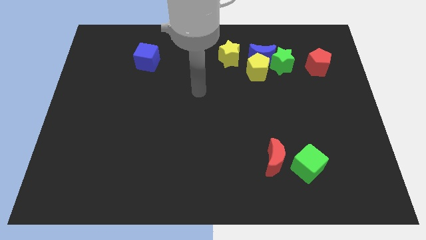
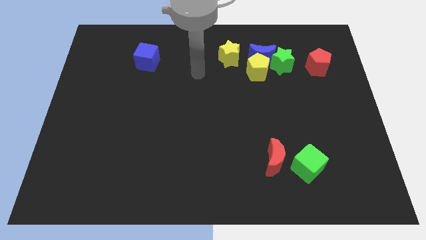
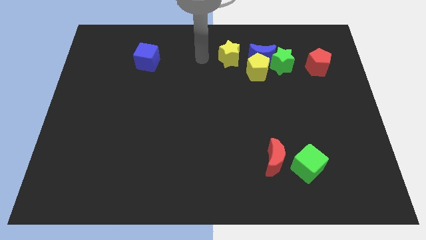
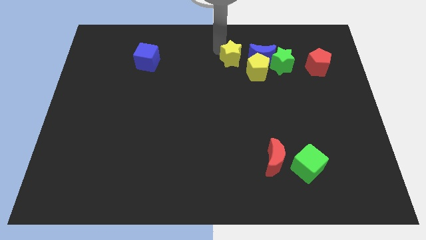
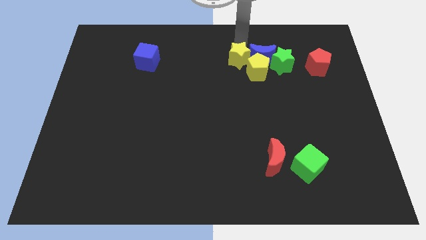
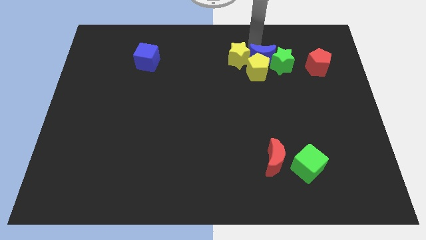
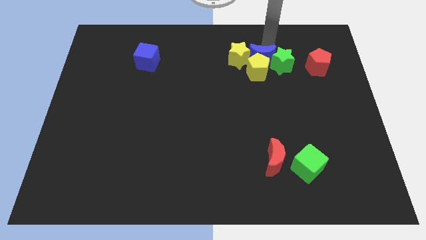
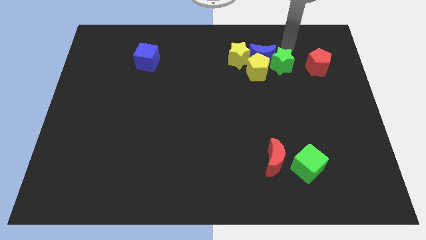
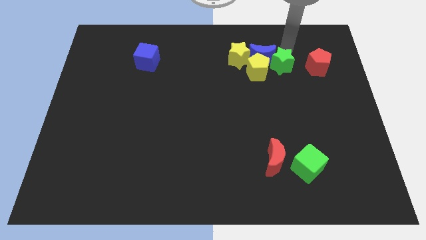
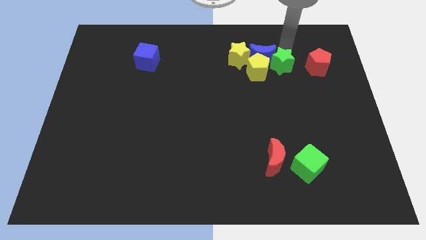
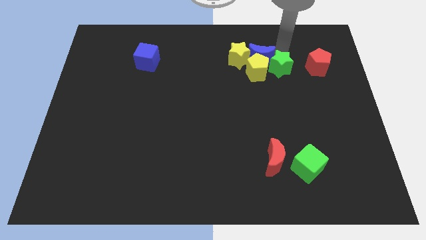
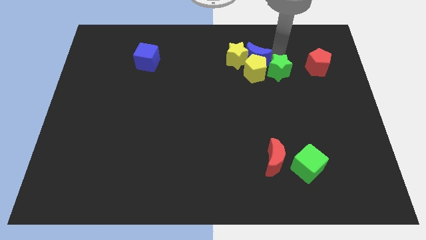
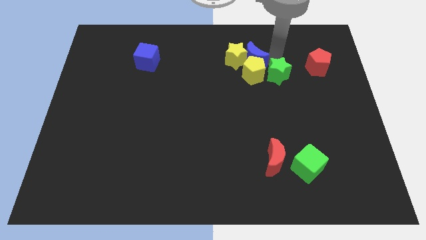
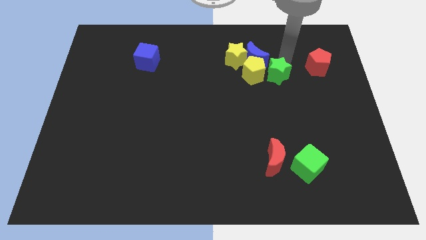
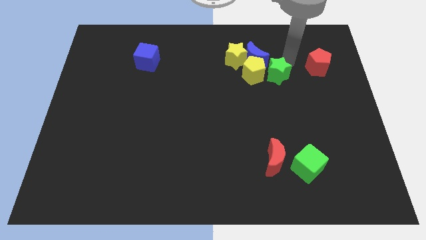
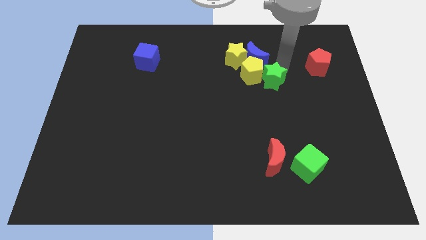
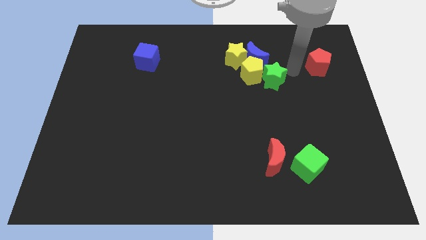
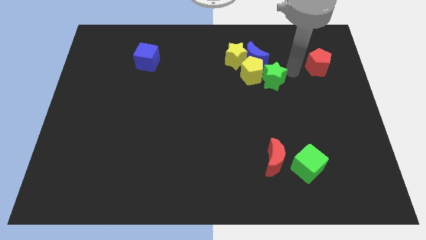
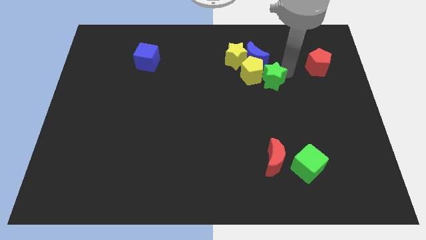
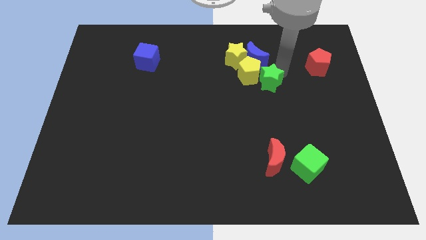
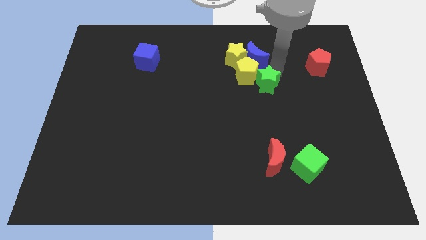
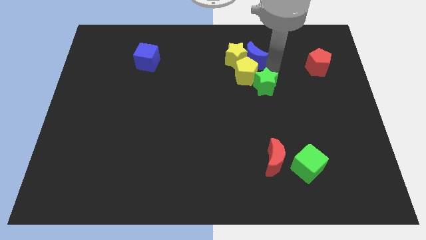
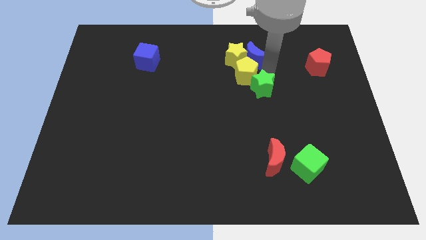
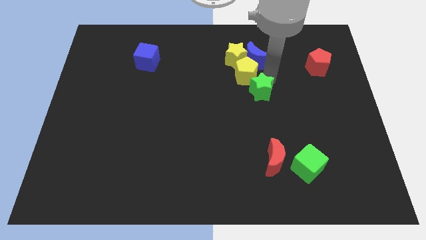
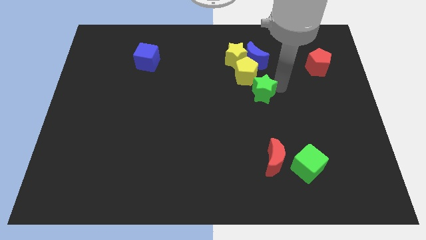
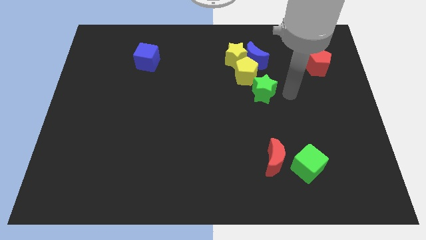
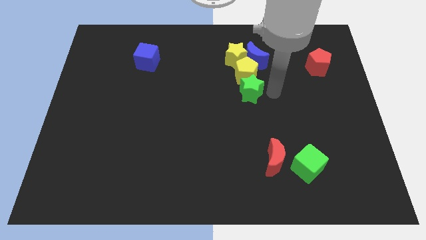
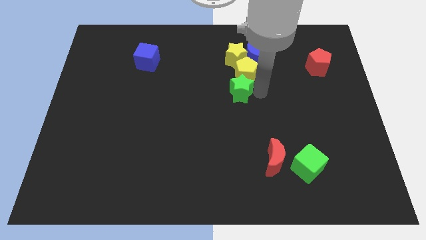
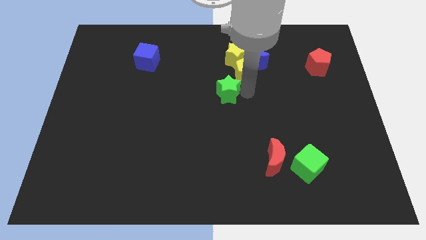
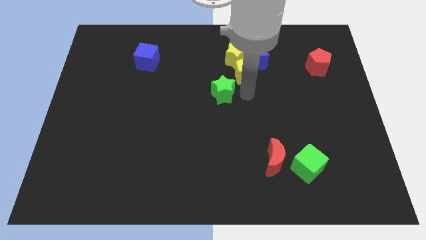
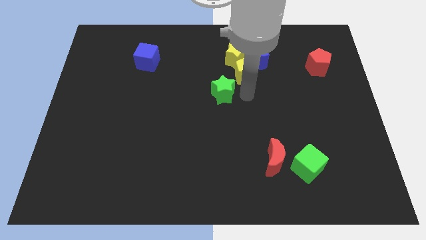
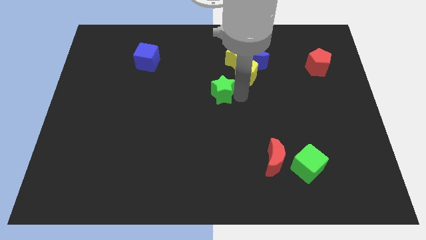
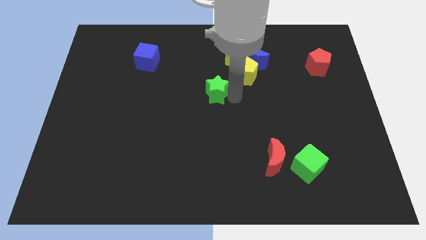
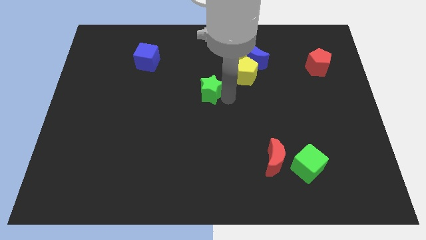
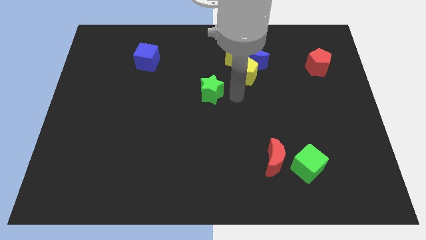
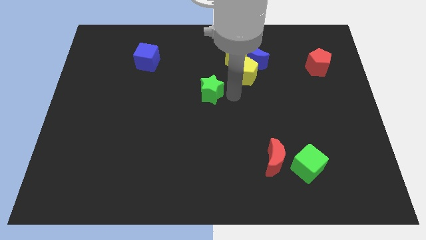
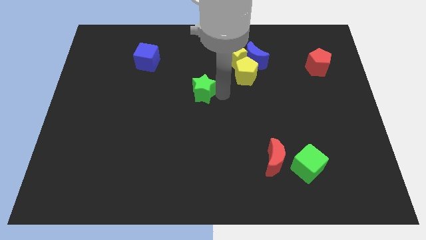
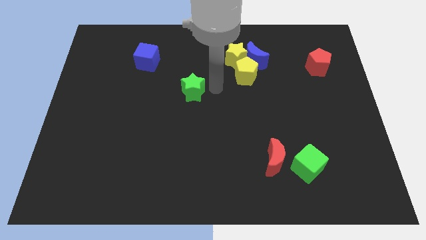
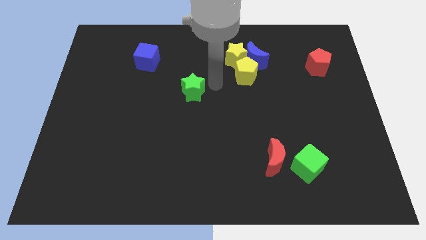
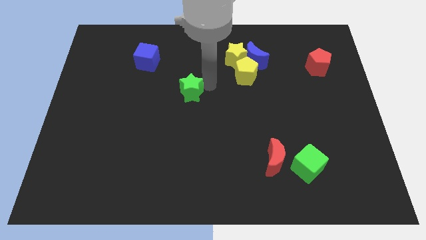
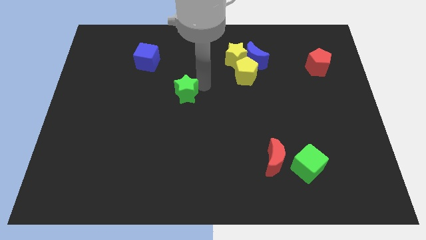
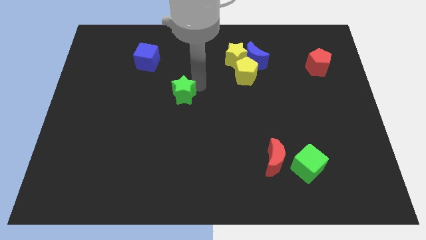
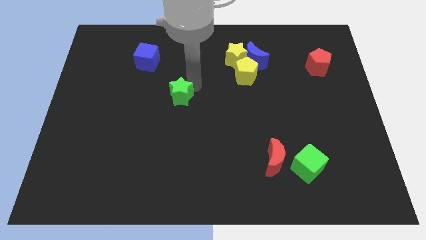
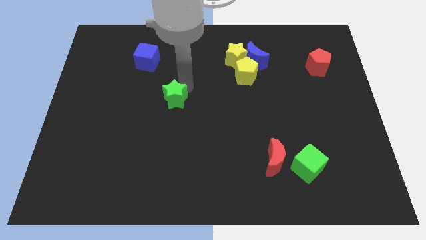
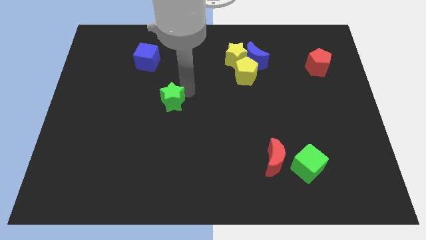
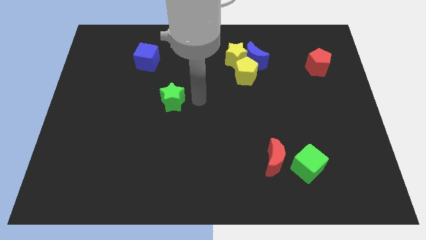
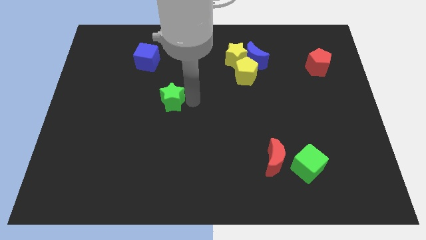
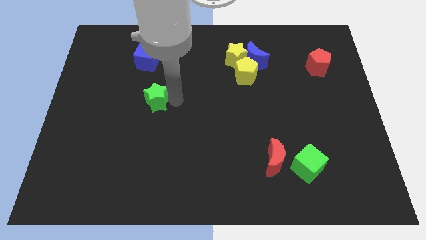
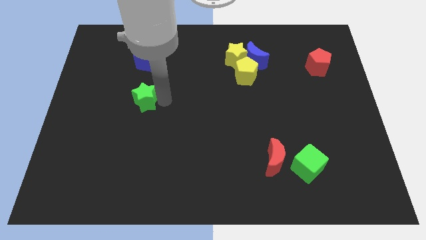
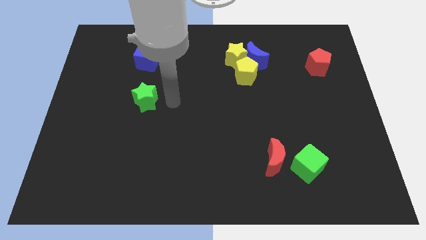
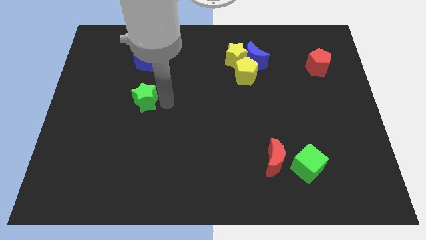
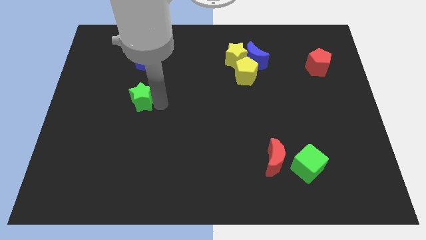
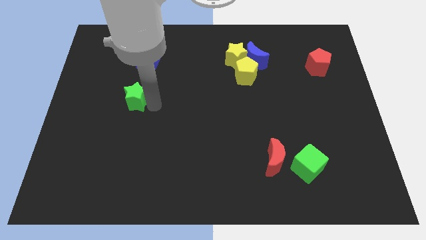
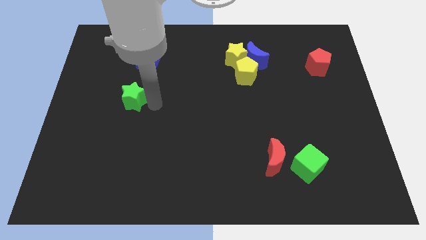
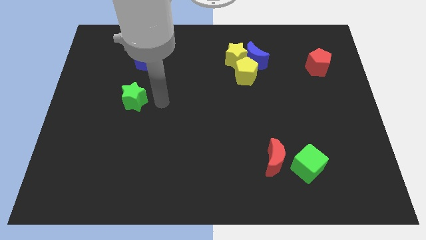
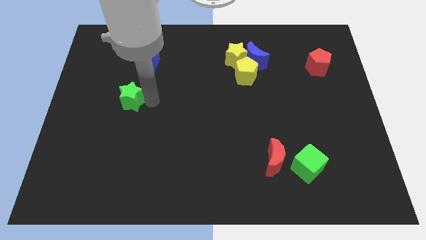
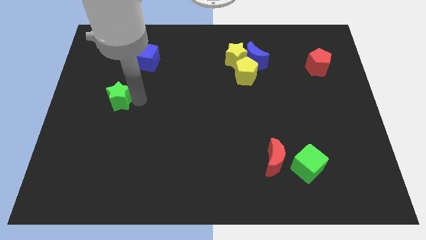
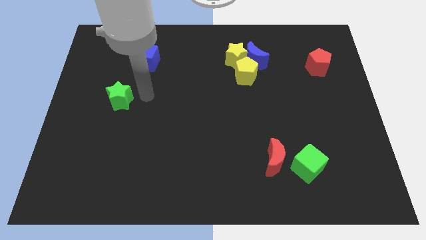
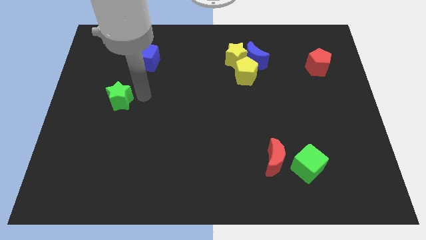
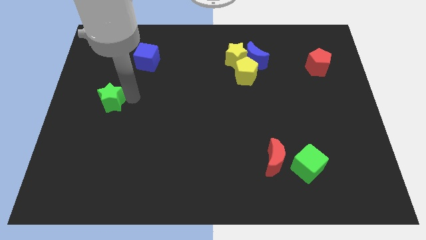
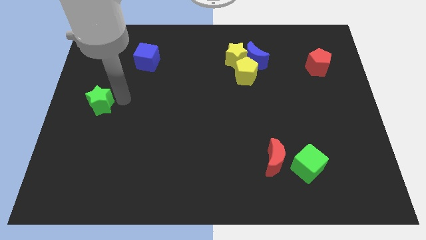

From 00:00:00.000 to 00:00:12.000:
move the green star to the left side of the board

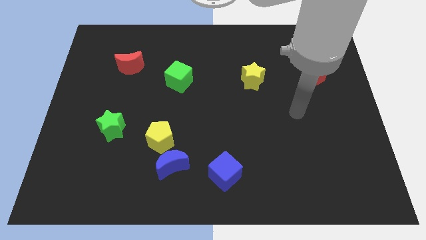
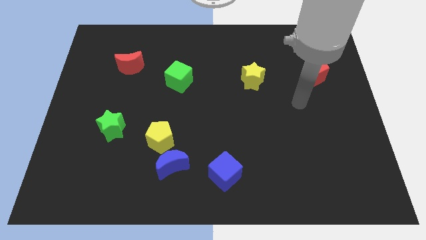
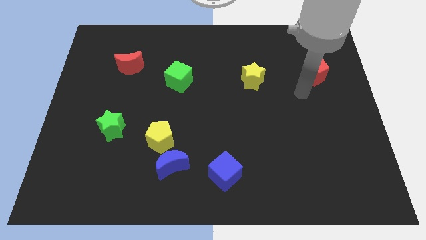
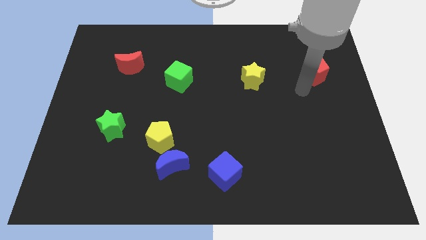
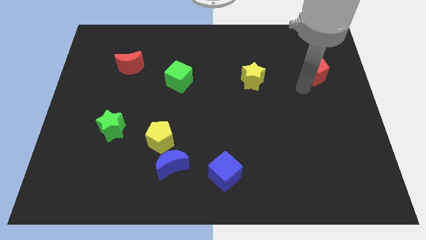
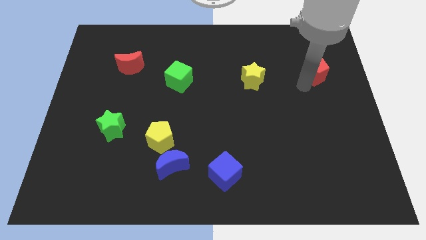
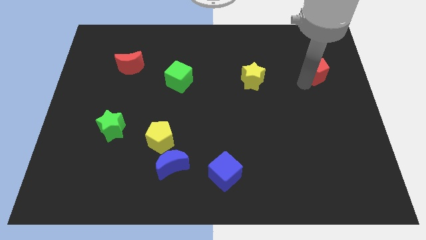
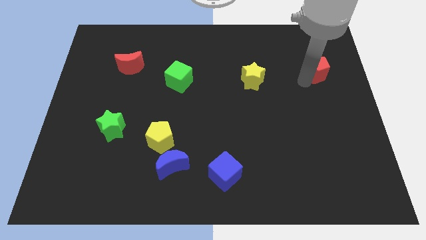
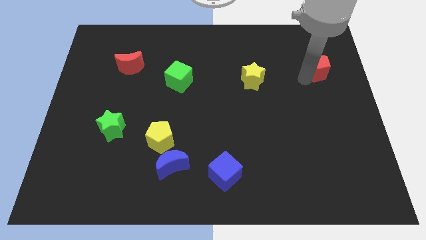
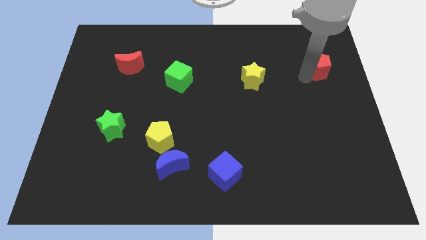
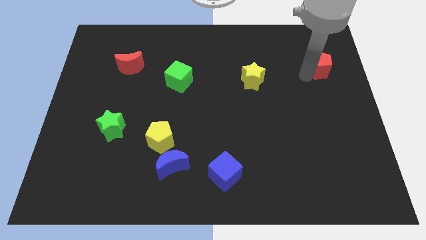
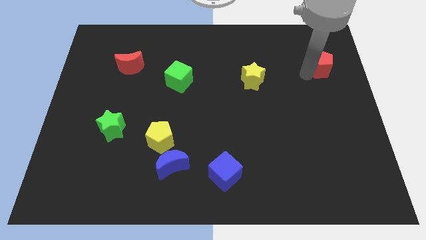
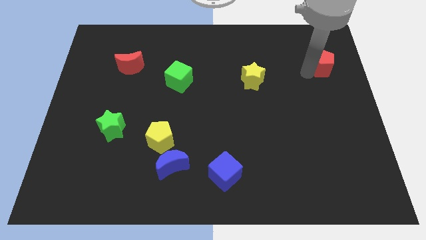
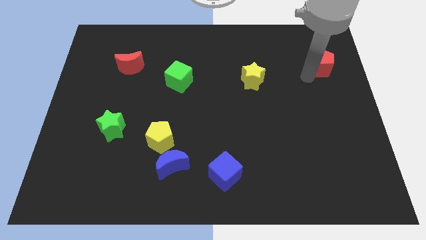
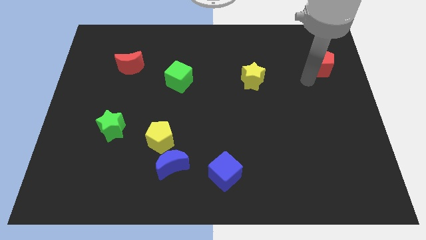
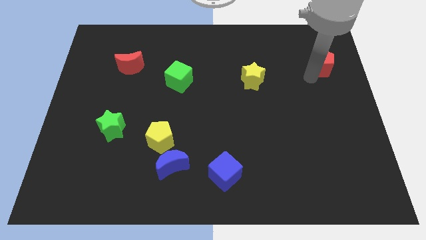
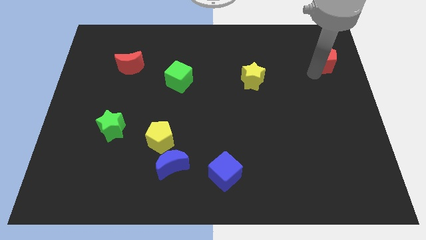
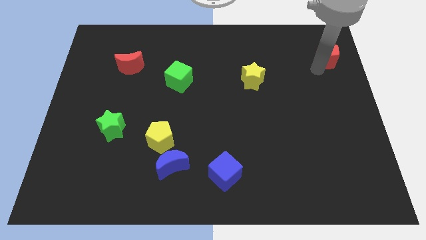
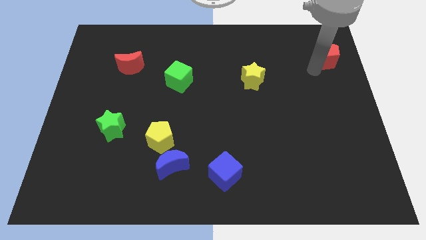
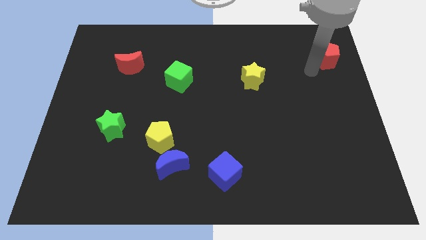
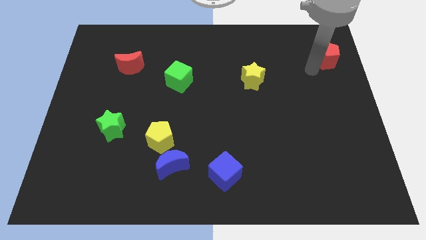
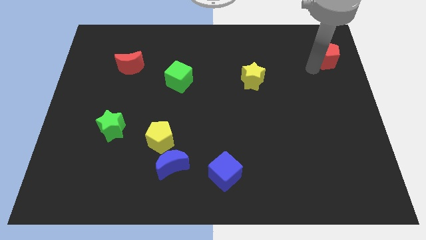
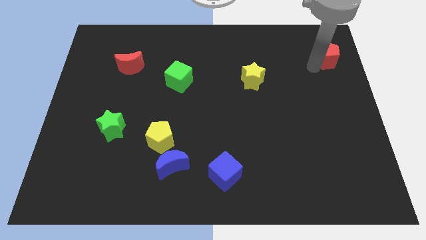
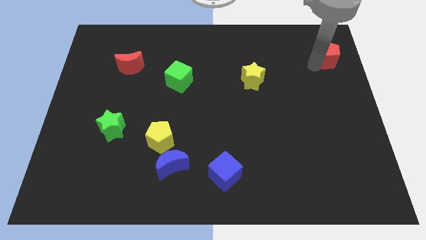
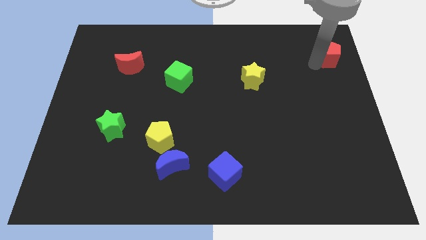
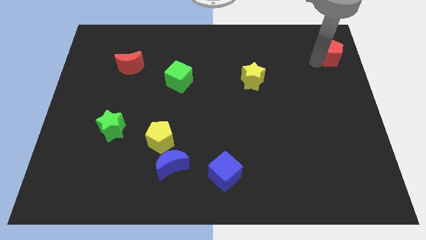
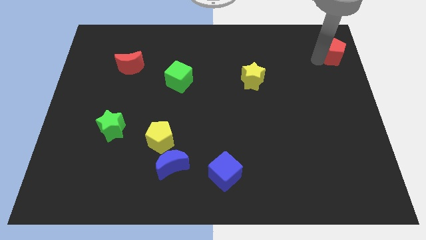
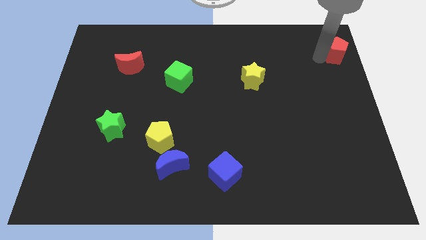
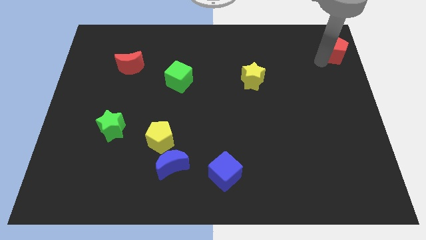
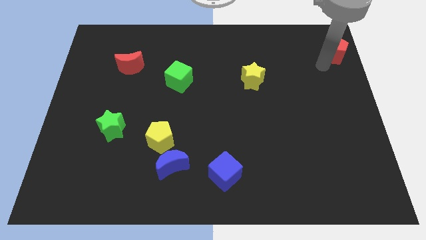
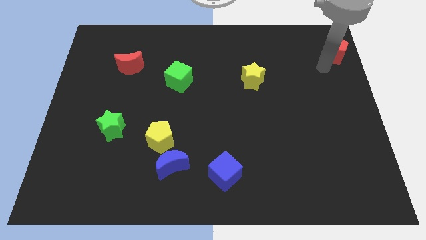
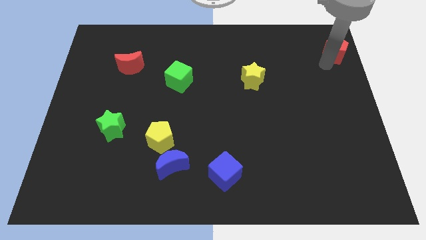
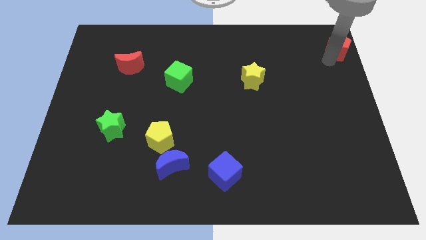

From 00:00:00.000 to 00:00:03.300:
push the red pentagon to the top right
